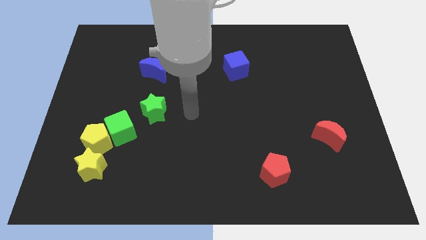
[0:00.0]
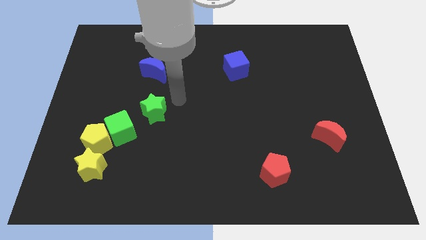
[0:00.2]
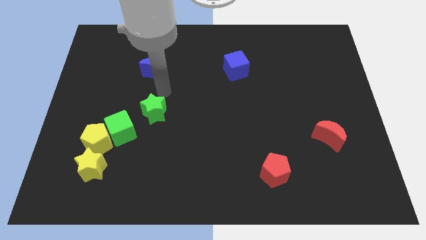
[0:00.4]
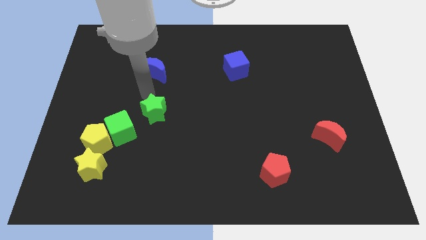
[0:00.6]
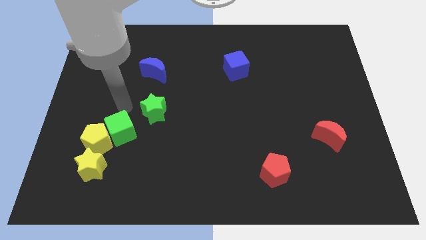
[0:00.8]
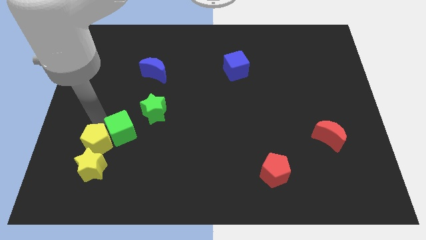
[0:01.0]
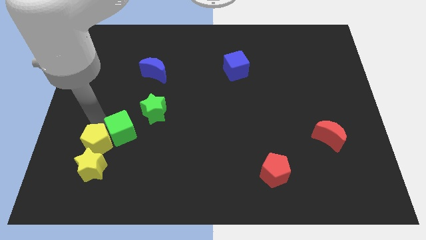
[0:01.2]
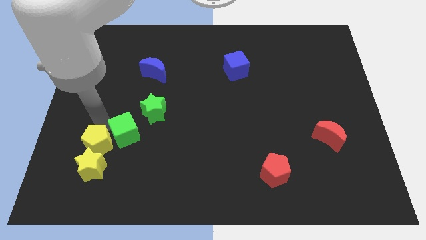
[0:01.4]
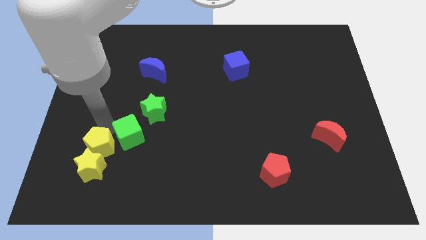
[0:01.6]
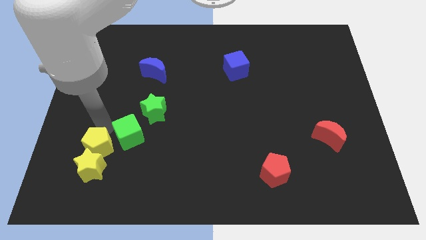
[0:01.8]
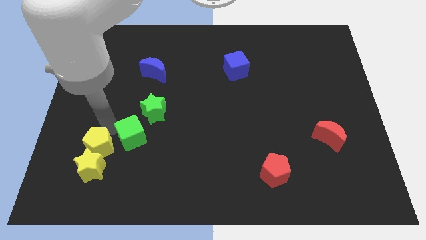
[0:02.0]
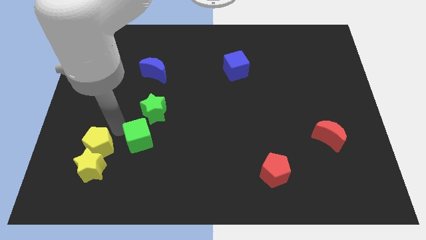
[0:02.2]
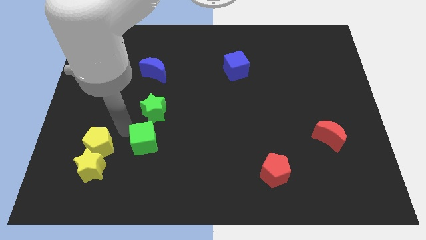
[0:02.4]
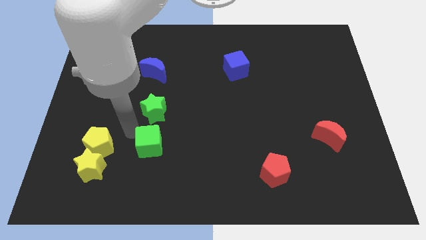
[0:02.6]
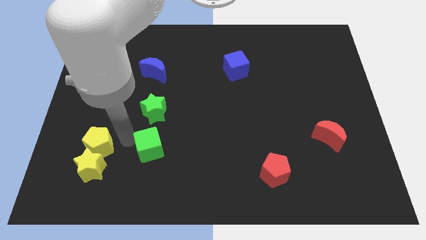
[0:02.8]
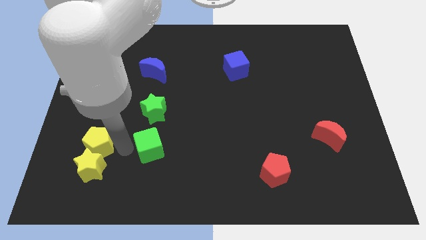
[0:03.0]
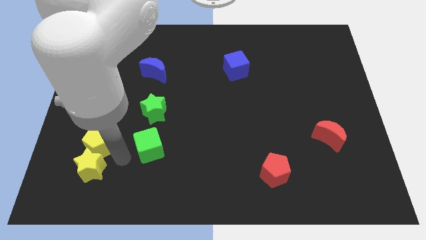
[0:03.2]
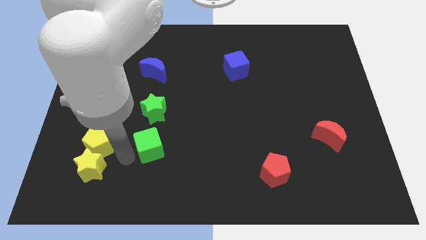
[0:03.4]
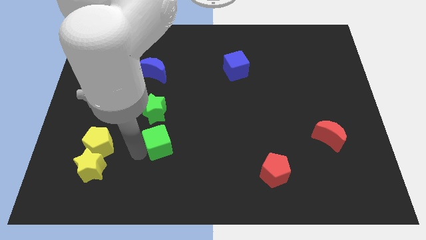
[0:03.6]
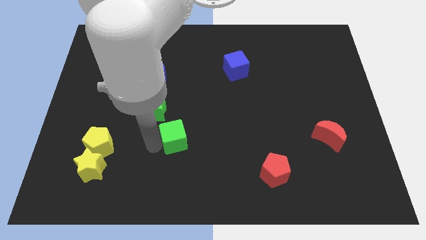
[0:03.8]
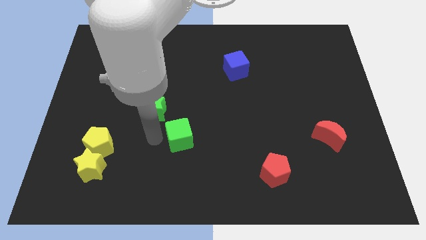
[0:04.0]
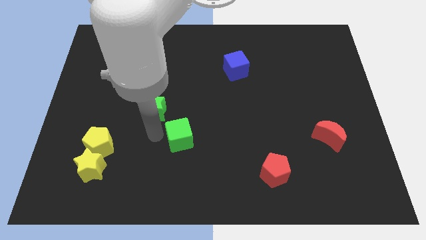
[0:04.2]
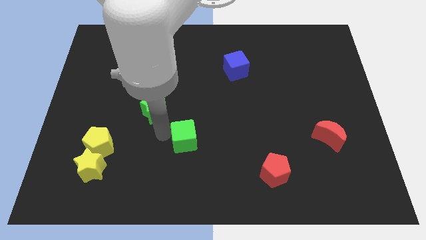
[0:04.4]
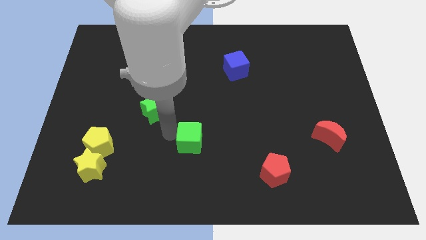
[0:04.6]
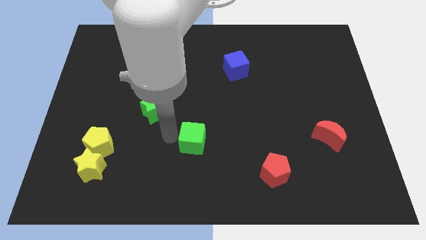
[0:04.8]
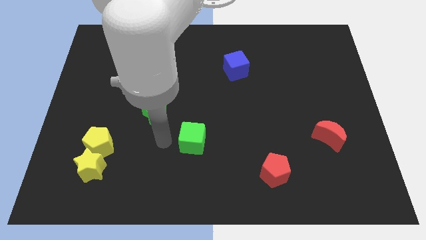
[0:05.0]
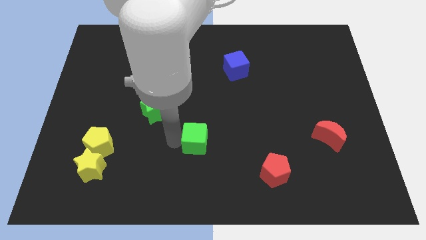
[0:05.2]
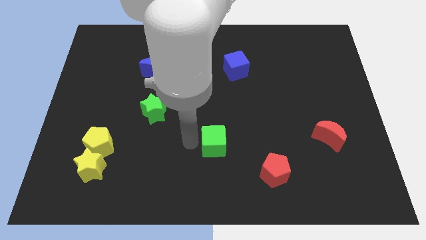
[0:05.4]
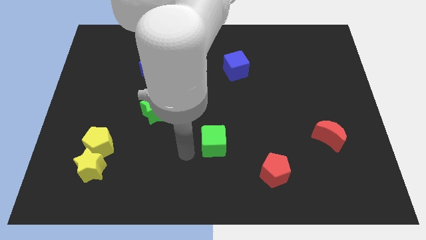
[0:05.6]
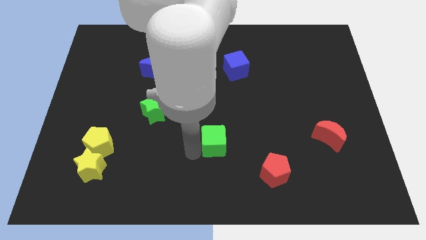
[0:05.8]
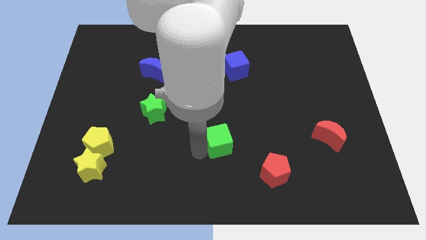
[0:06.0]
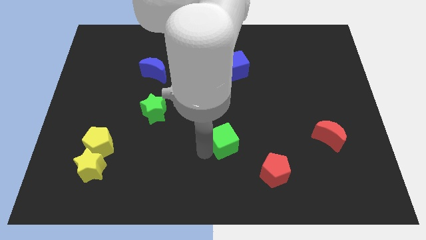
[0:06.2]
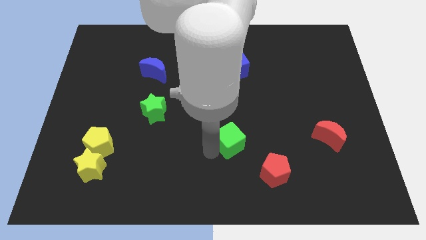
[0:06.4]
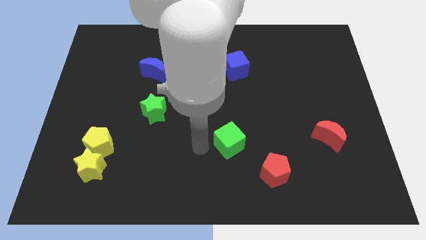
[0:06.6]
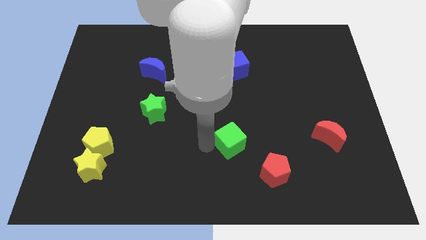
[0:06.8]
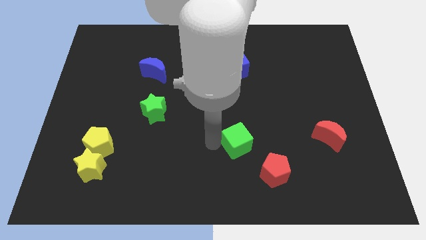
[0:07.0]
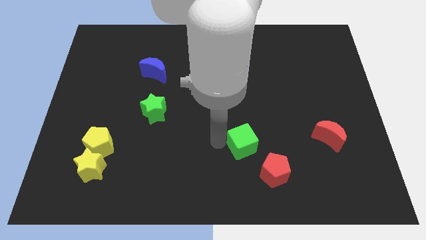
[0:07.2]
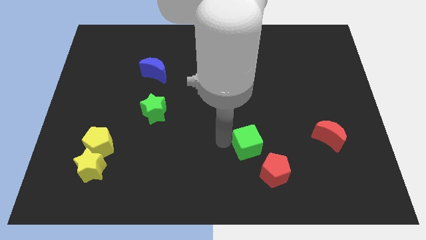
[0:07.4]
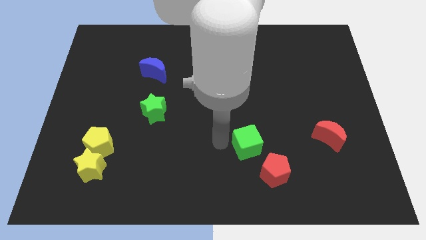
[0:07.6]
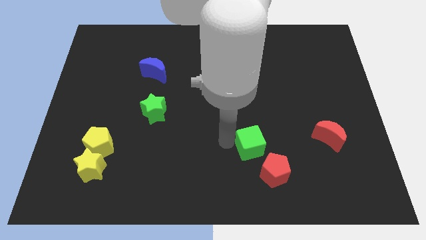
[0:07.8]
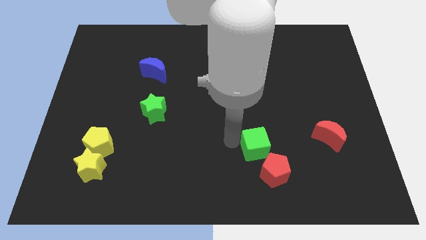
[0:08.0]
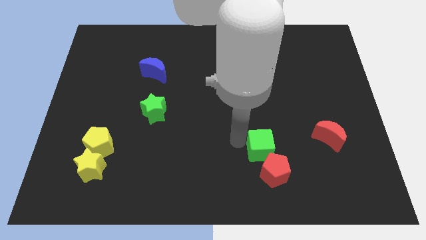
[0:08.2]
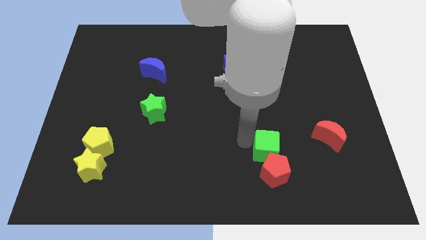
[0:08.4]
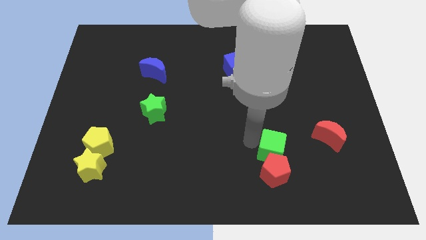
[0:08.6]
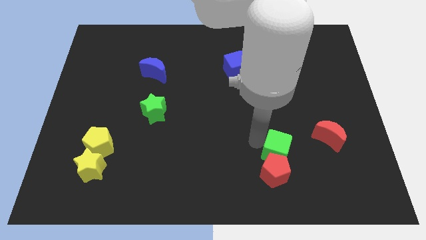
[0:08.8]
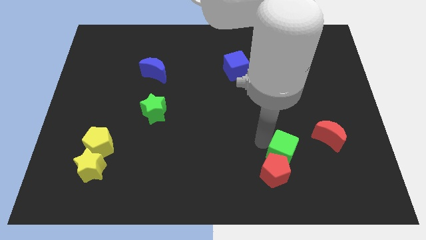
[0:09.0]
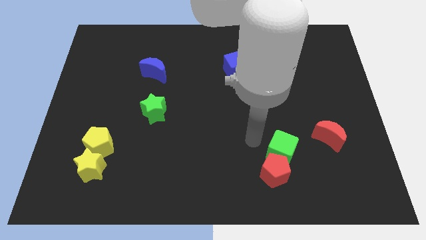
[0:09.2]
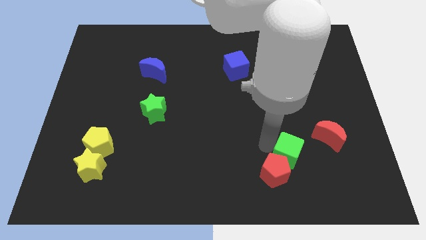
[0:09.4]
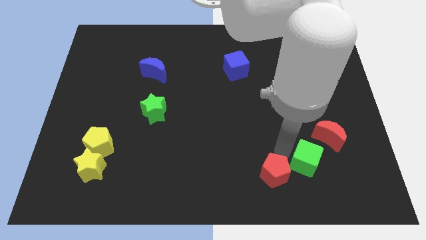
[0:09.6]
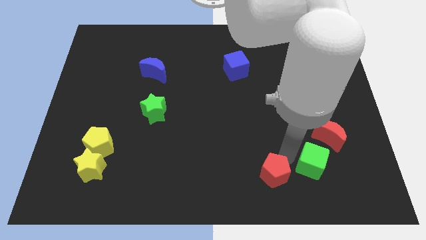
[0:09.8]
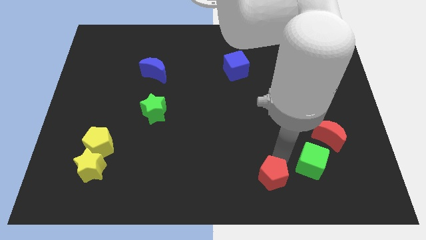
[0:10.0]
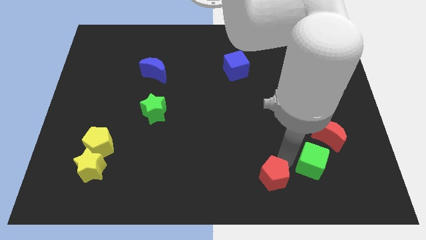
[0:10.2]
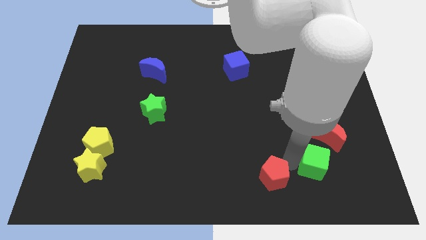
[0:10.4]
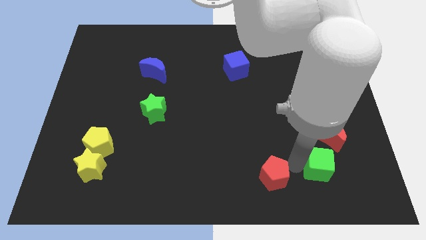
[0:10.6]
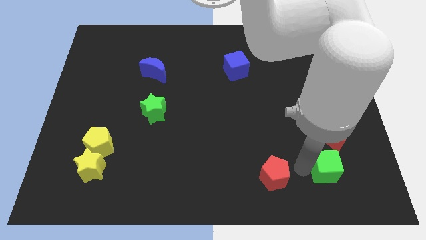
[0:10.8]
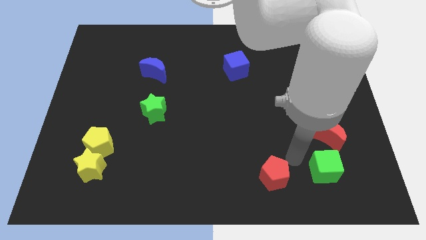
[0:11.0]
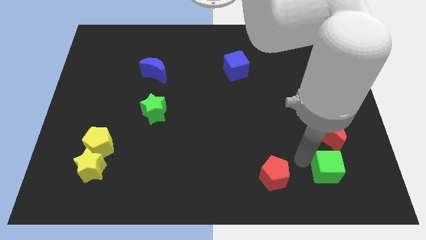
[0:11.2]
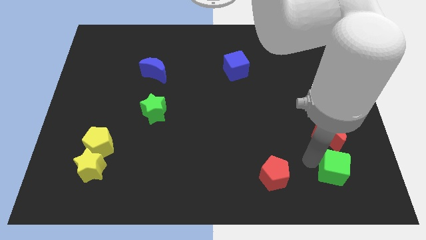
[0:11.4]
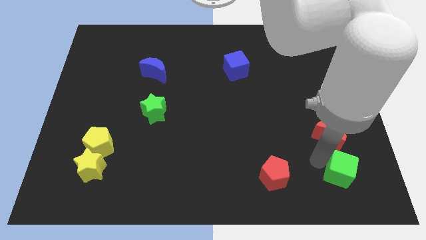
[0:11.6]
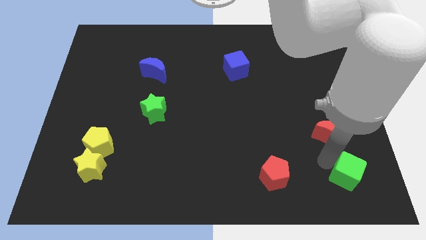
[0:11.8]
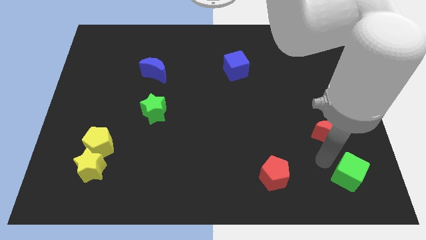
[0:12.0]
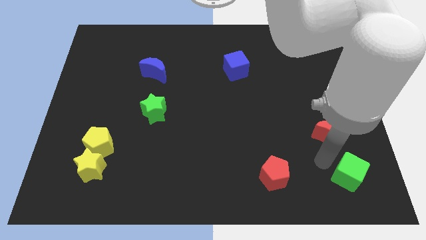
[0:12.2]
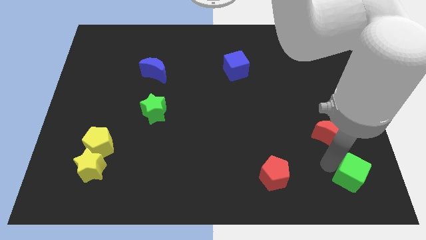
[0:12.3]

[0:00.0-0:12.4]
put the green cube to the bottom right corner

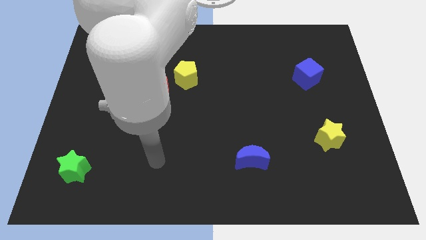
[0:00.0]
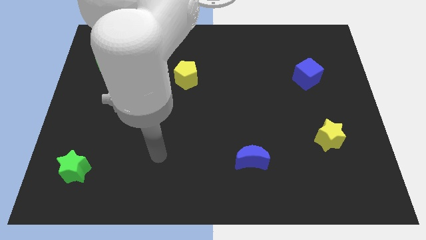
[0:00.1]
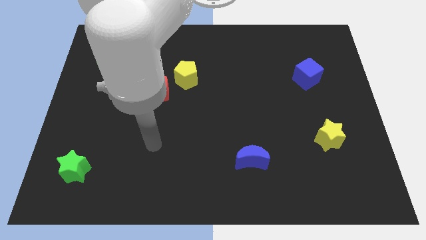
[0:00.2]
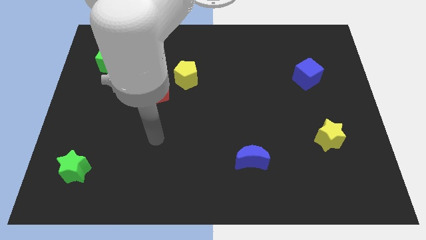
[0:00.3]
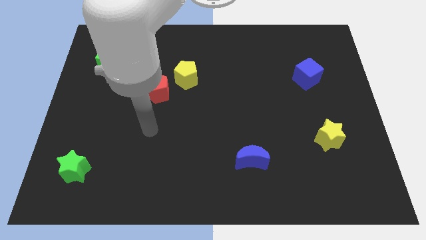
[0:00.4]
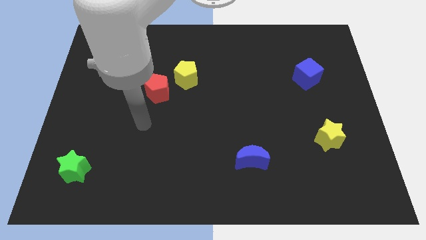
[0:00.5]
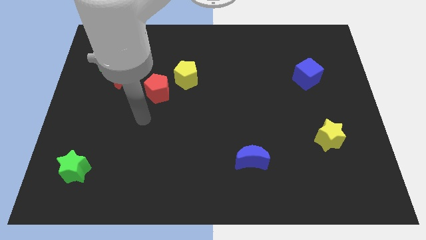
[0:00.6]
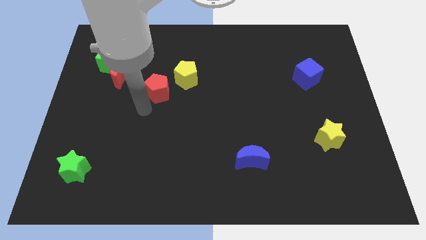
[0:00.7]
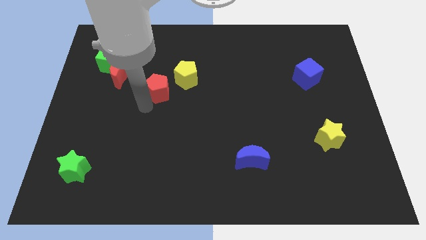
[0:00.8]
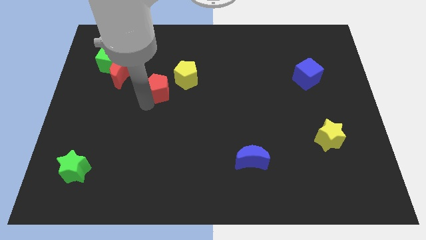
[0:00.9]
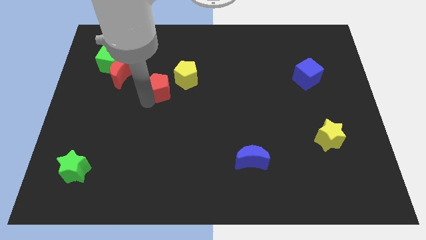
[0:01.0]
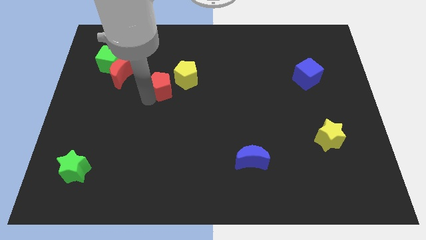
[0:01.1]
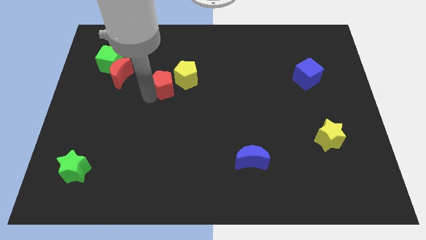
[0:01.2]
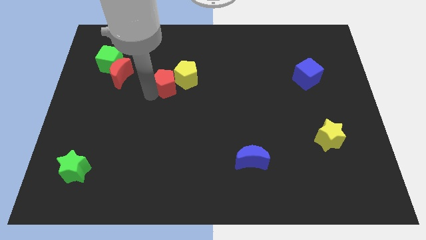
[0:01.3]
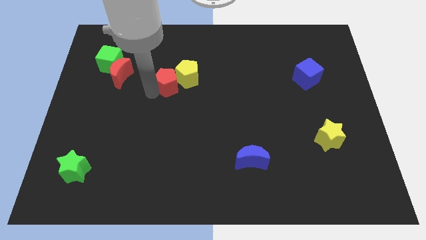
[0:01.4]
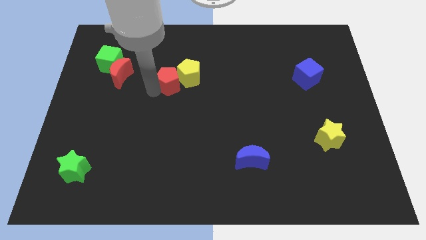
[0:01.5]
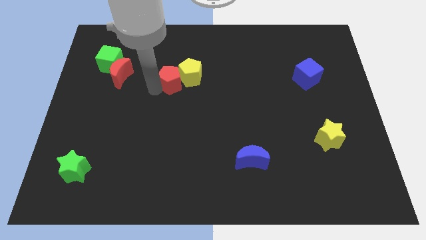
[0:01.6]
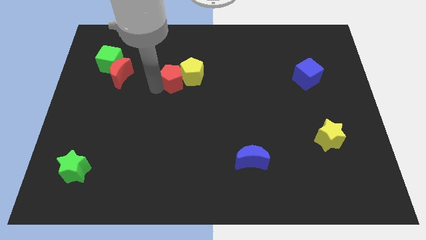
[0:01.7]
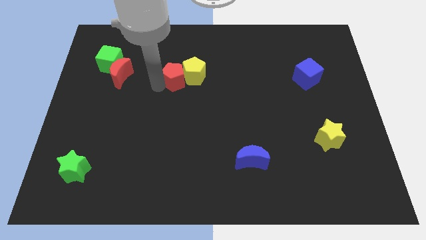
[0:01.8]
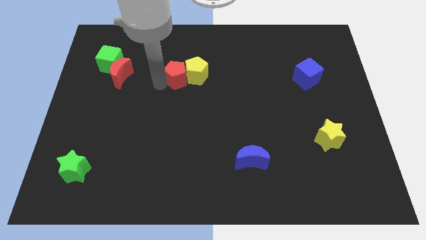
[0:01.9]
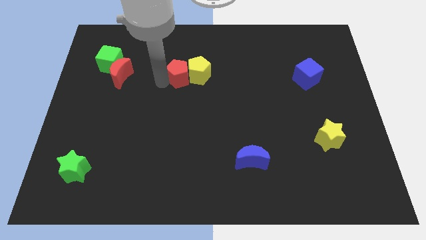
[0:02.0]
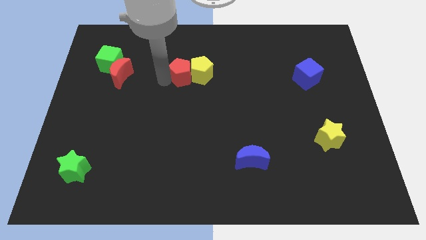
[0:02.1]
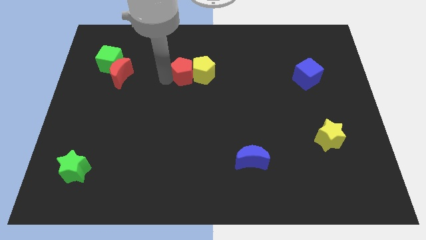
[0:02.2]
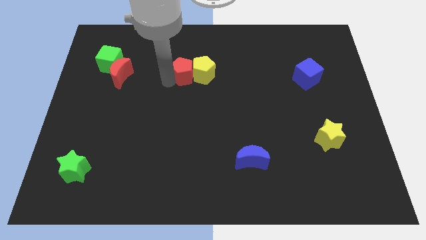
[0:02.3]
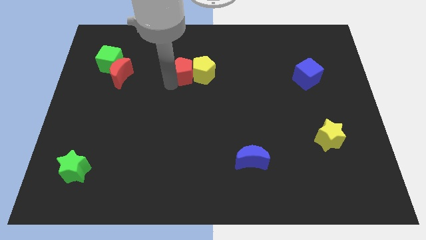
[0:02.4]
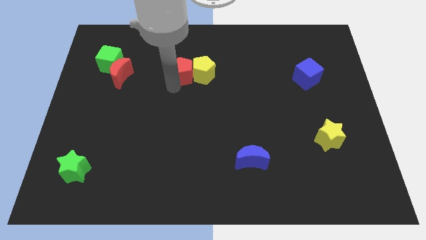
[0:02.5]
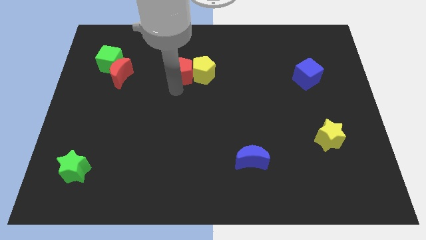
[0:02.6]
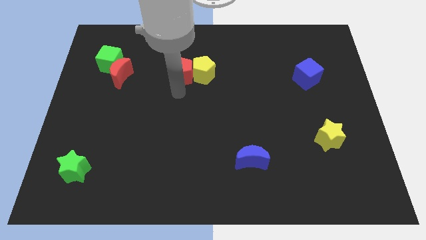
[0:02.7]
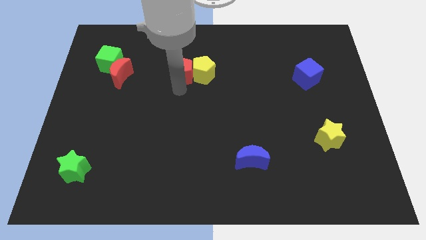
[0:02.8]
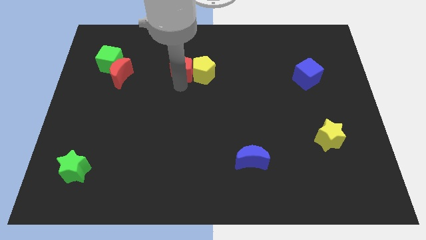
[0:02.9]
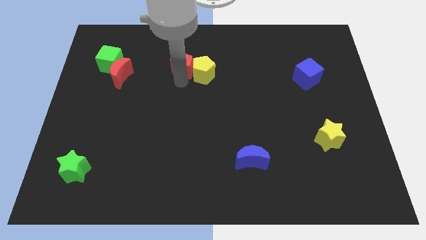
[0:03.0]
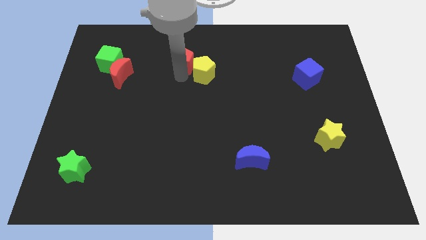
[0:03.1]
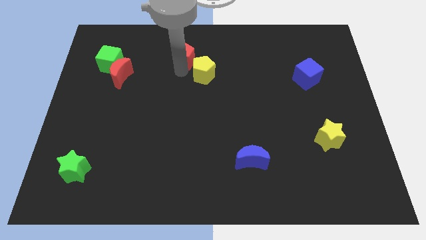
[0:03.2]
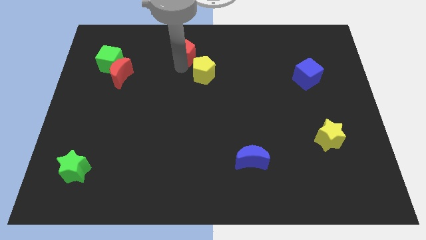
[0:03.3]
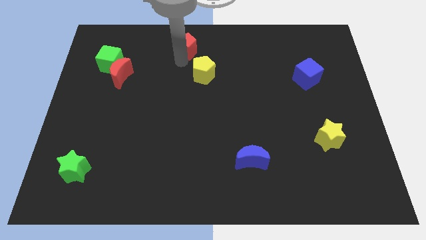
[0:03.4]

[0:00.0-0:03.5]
move the red pentagon to the top
